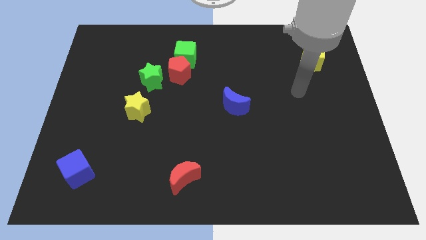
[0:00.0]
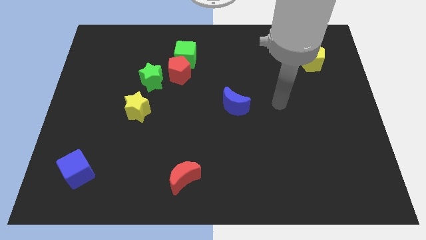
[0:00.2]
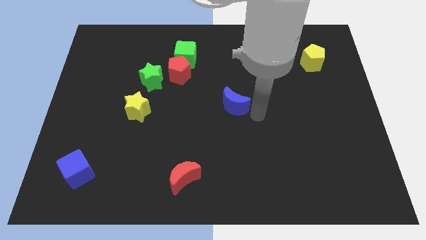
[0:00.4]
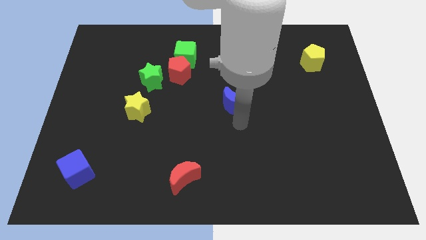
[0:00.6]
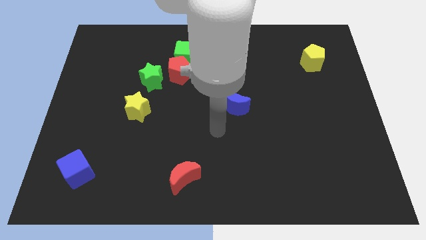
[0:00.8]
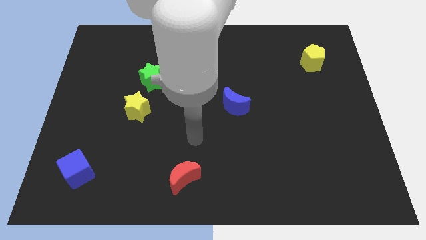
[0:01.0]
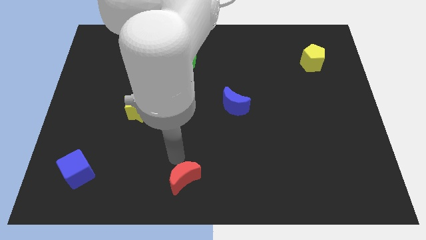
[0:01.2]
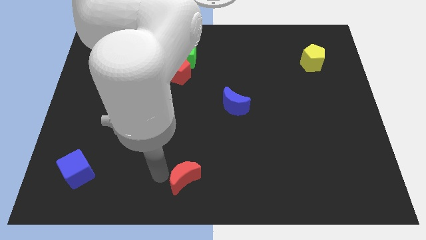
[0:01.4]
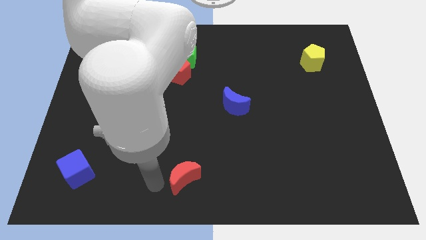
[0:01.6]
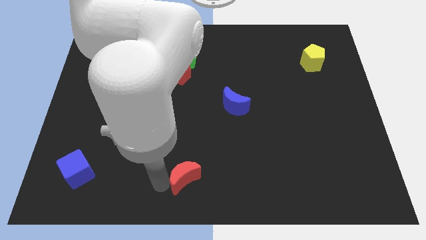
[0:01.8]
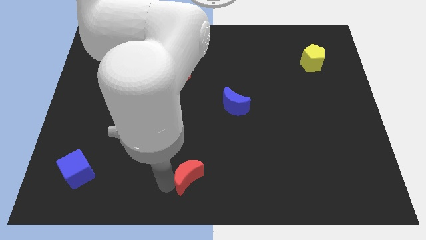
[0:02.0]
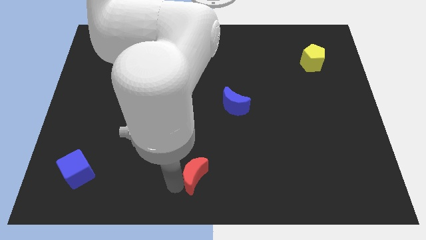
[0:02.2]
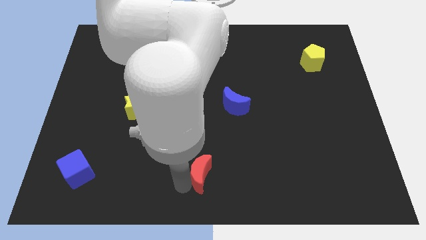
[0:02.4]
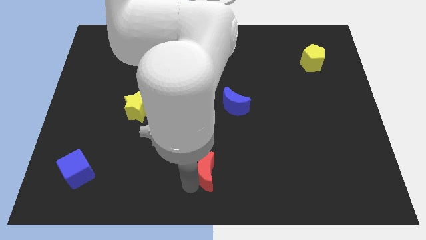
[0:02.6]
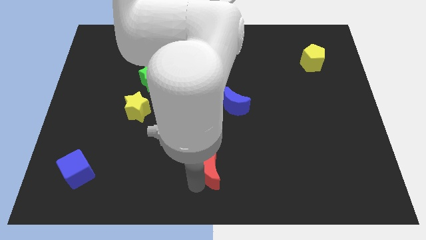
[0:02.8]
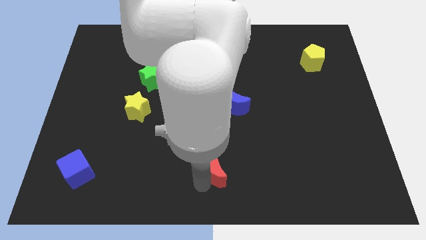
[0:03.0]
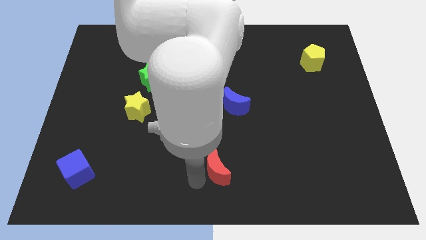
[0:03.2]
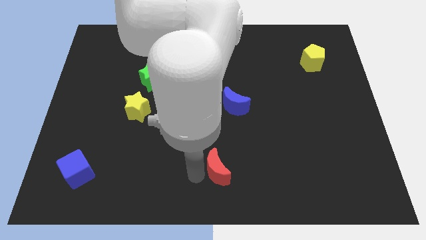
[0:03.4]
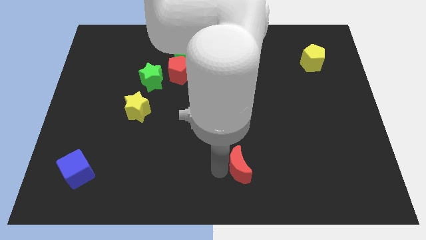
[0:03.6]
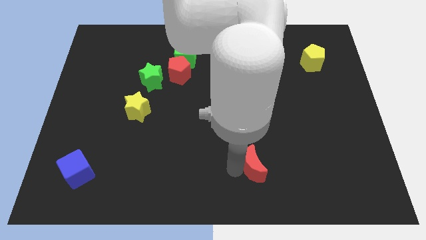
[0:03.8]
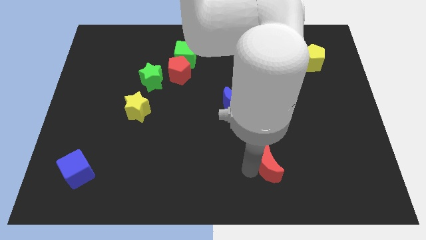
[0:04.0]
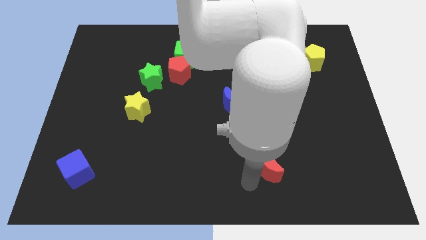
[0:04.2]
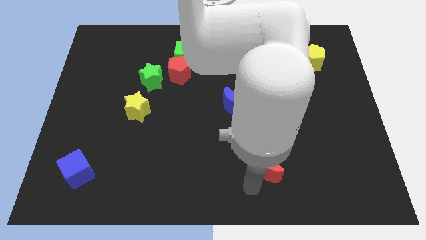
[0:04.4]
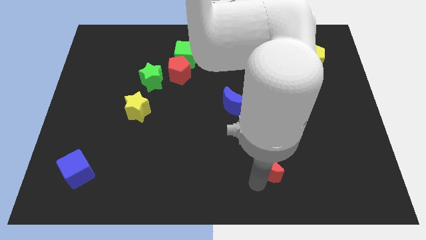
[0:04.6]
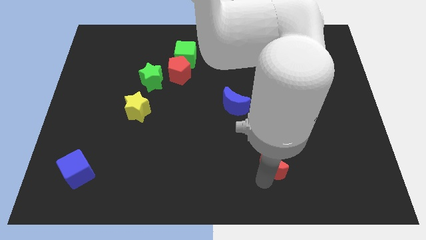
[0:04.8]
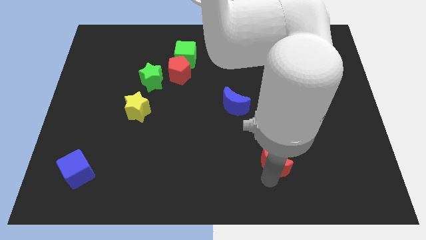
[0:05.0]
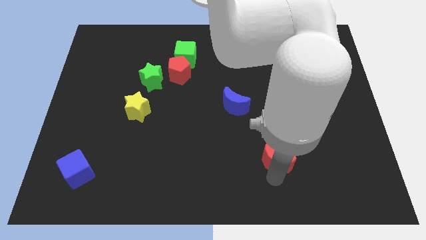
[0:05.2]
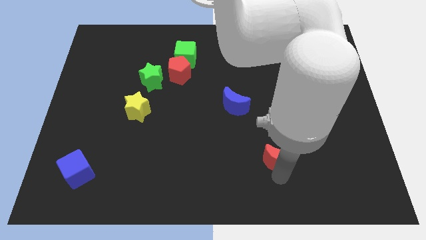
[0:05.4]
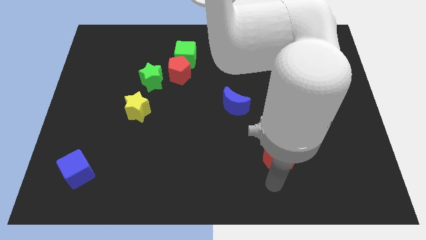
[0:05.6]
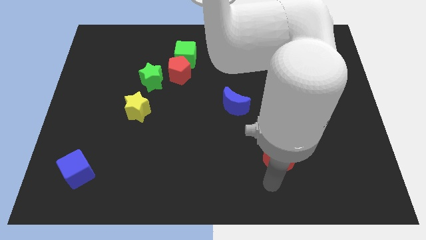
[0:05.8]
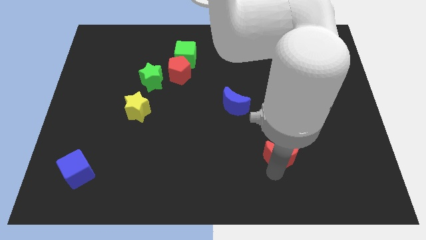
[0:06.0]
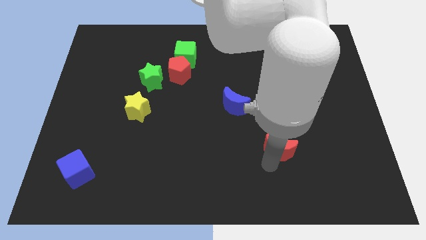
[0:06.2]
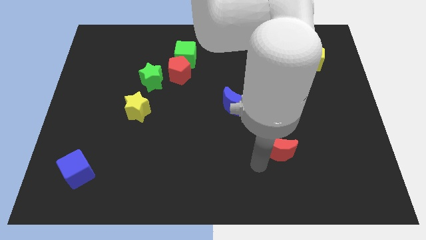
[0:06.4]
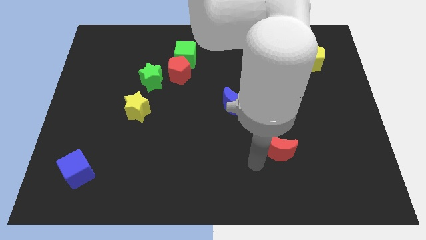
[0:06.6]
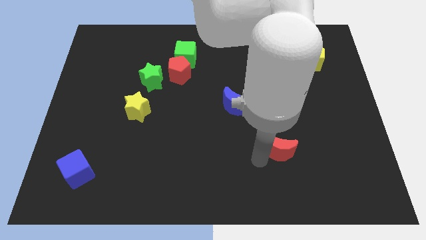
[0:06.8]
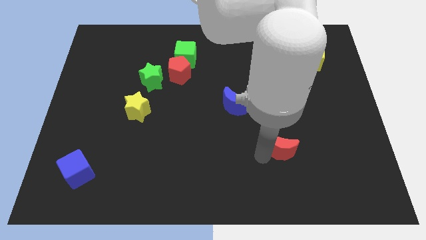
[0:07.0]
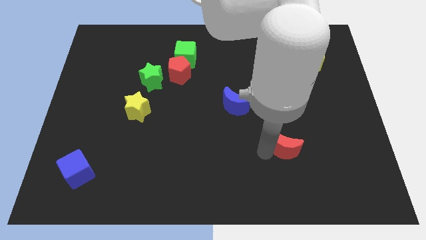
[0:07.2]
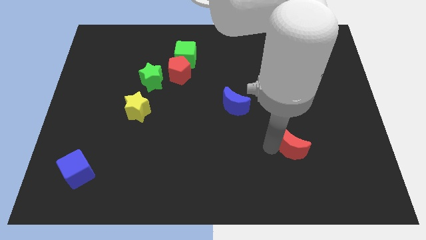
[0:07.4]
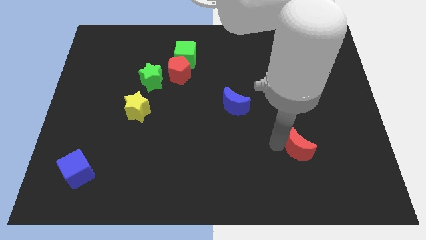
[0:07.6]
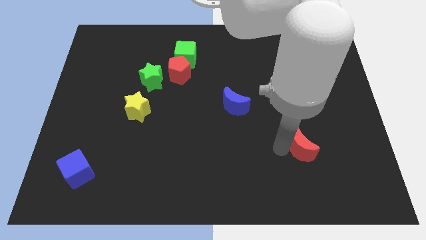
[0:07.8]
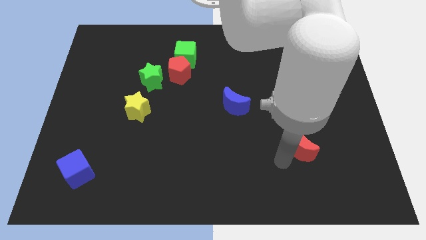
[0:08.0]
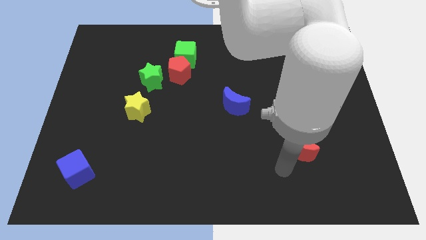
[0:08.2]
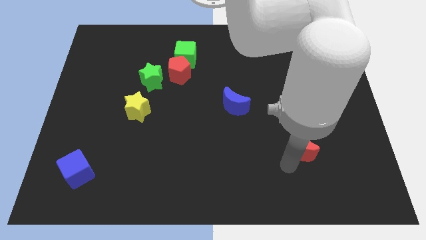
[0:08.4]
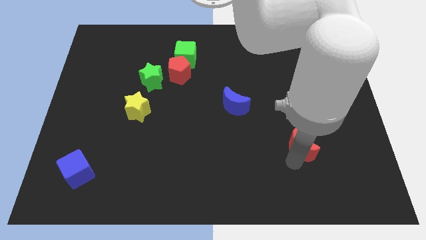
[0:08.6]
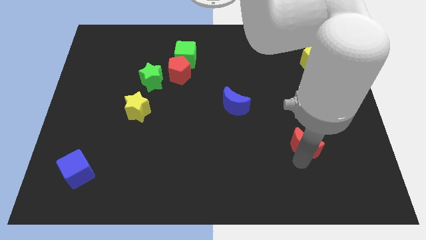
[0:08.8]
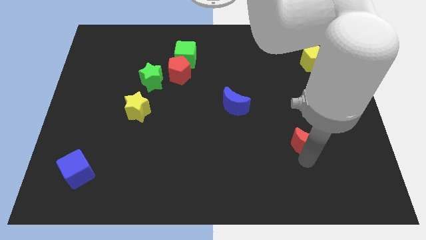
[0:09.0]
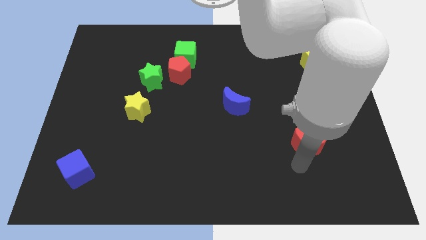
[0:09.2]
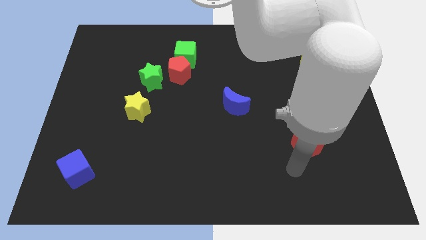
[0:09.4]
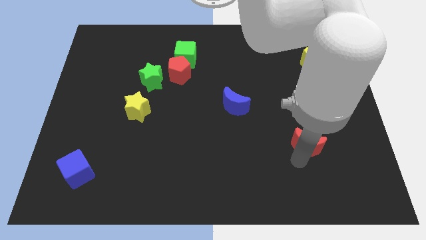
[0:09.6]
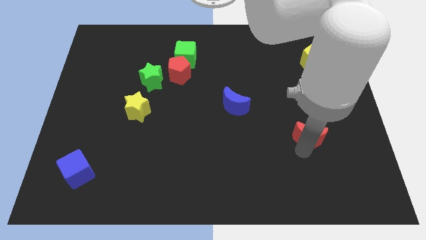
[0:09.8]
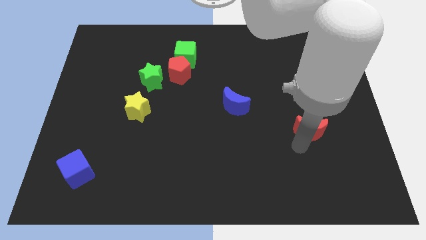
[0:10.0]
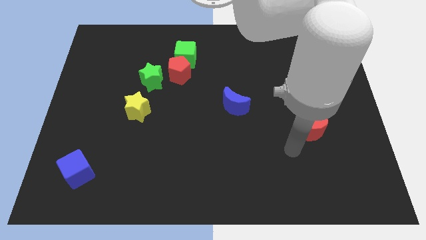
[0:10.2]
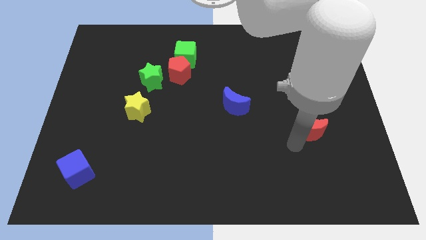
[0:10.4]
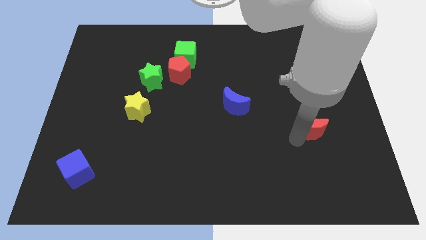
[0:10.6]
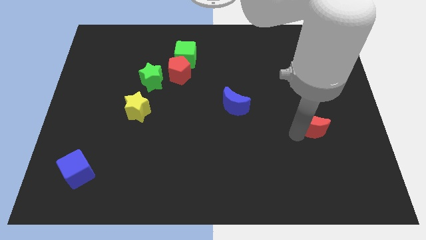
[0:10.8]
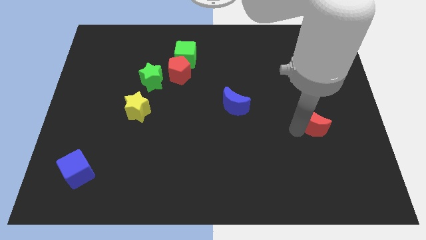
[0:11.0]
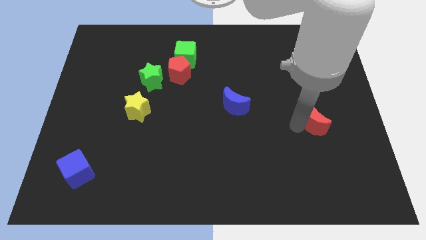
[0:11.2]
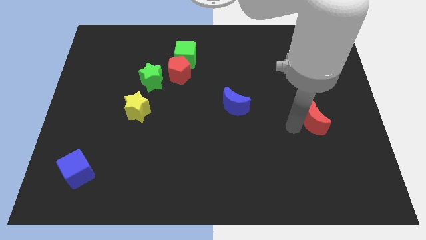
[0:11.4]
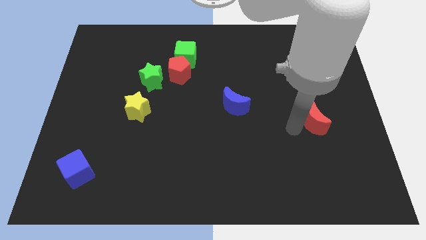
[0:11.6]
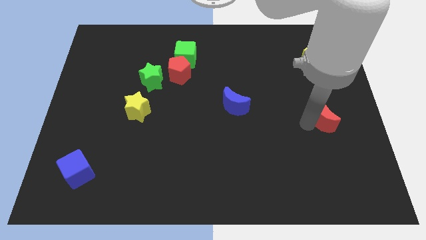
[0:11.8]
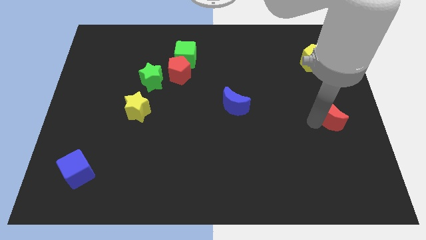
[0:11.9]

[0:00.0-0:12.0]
push the red moon to the right side

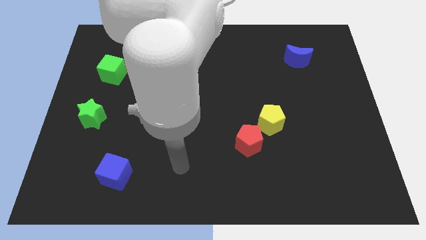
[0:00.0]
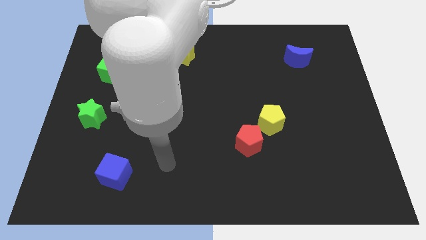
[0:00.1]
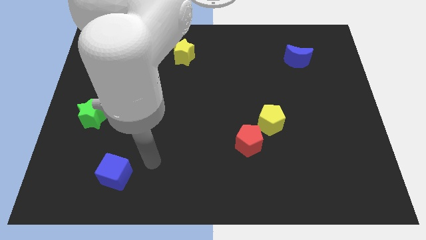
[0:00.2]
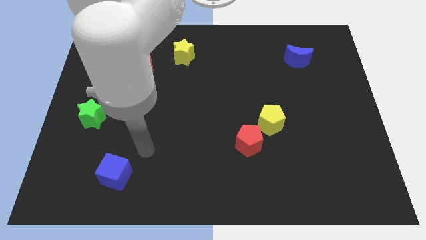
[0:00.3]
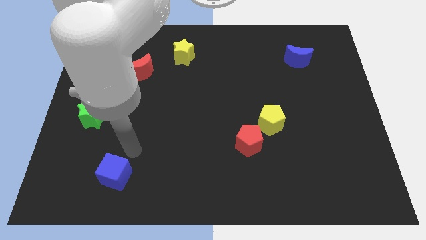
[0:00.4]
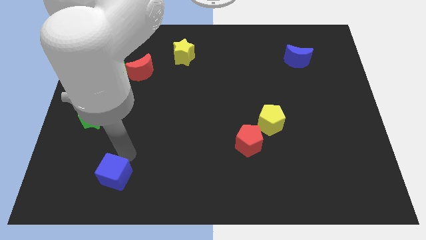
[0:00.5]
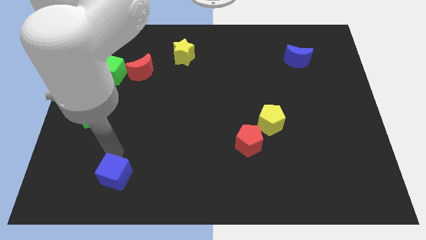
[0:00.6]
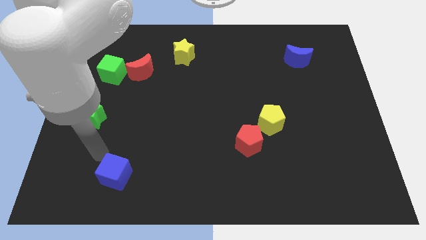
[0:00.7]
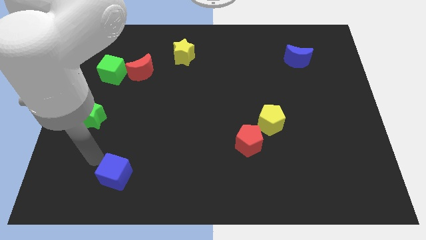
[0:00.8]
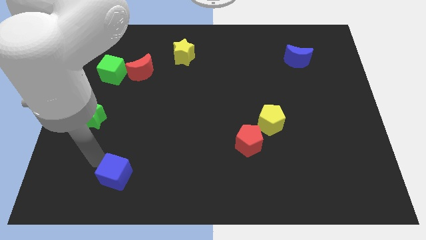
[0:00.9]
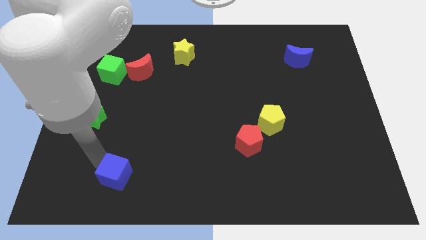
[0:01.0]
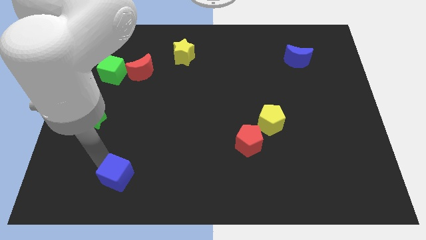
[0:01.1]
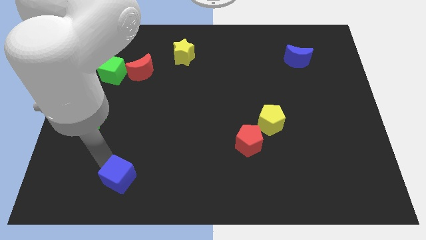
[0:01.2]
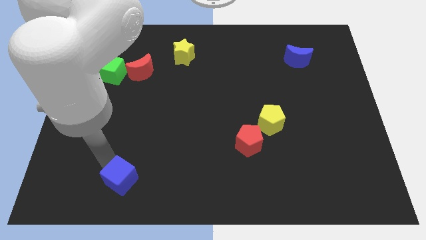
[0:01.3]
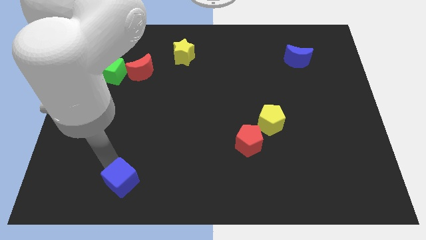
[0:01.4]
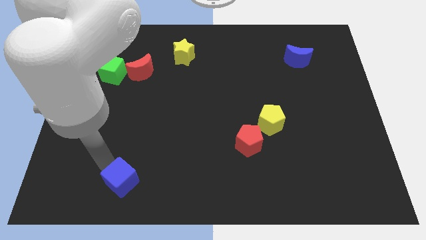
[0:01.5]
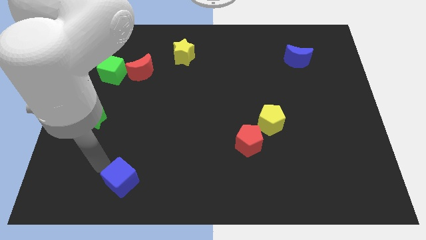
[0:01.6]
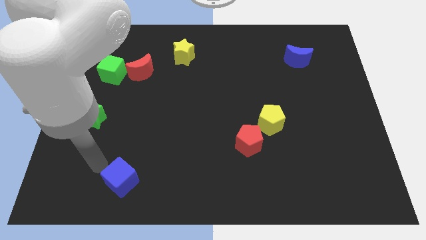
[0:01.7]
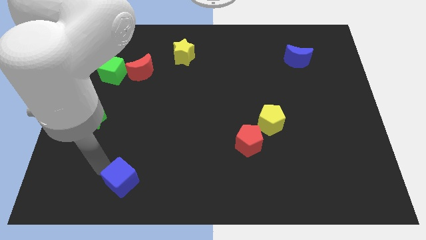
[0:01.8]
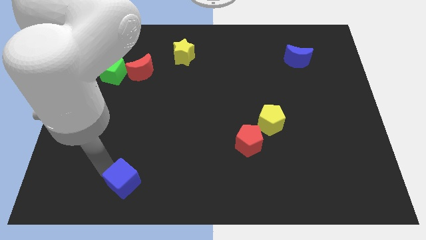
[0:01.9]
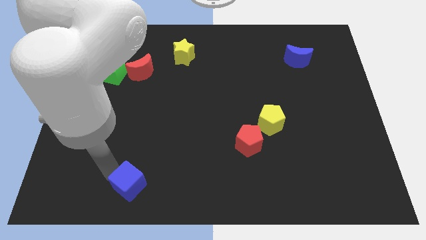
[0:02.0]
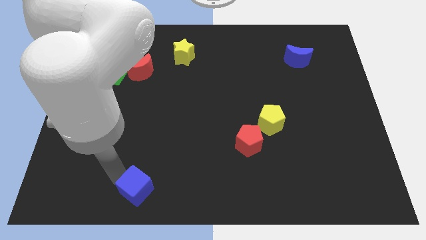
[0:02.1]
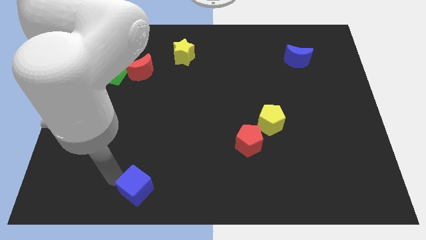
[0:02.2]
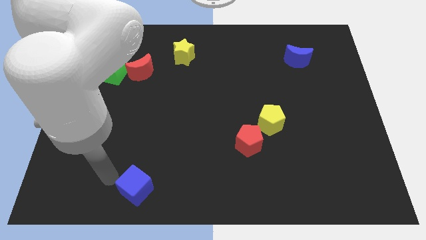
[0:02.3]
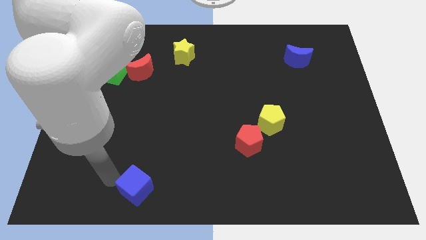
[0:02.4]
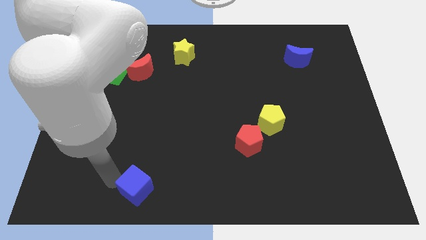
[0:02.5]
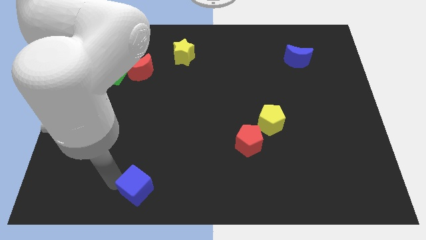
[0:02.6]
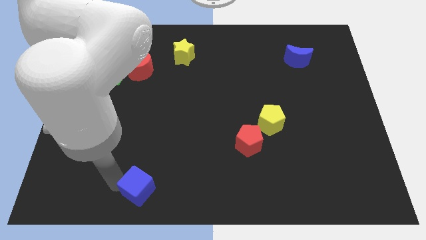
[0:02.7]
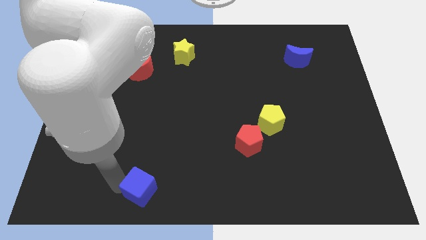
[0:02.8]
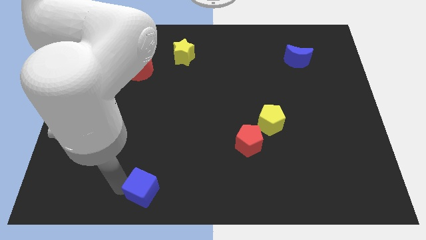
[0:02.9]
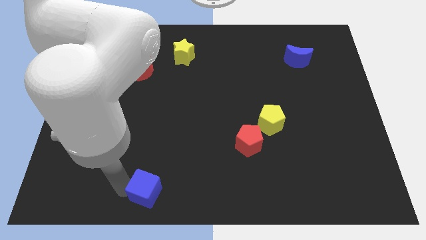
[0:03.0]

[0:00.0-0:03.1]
put the blue cube to the bottom side
